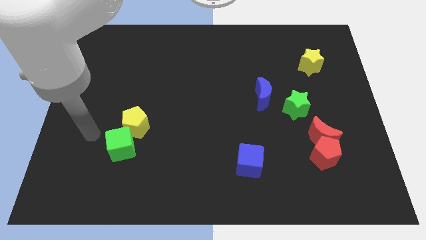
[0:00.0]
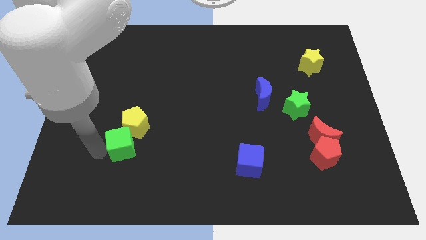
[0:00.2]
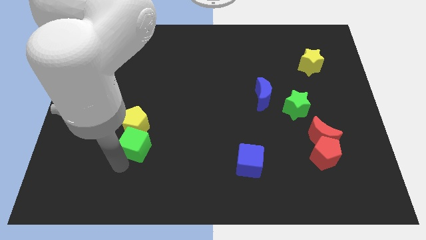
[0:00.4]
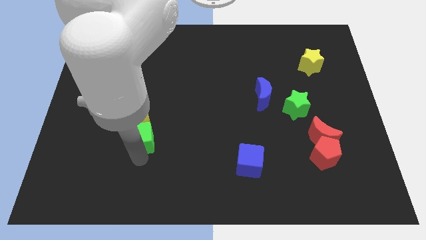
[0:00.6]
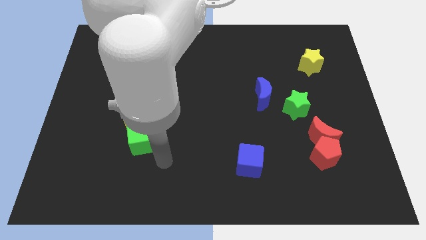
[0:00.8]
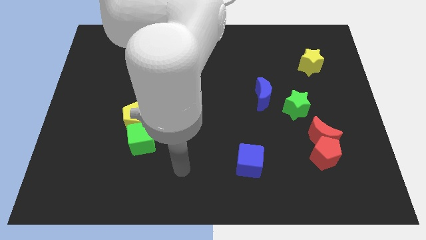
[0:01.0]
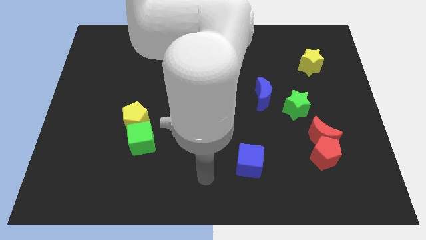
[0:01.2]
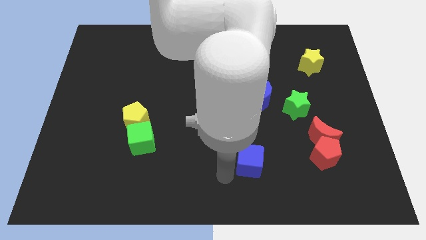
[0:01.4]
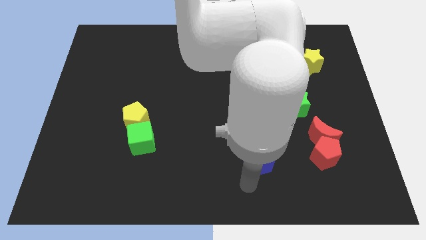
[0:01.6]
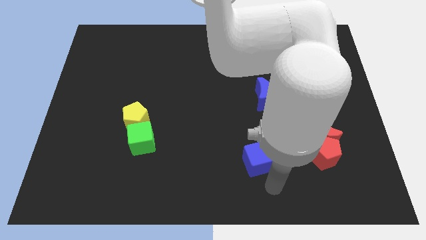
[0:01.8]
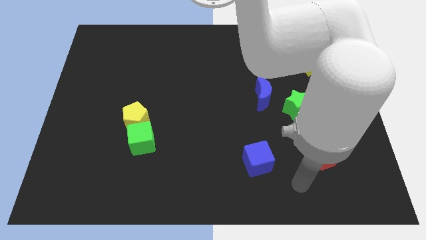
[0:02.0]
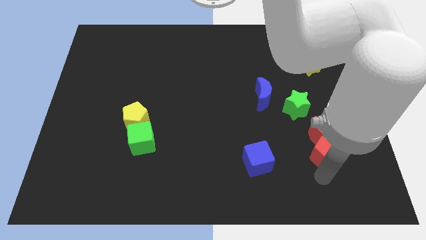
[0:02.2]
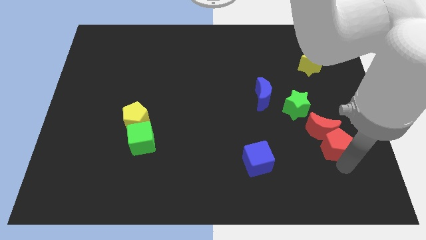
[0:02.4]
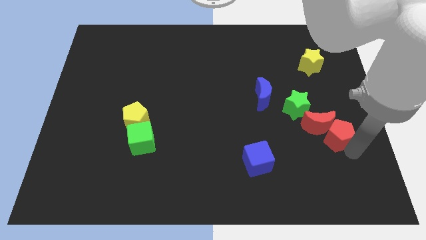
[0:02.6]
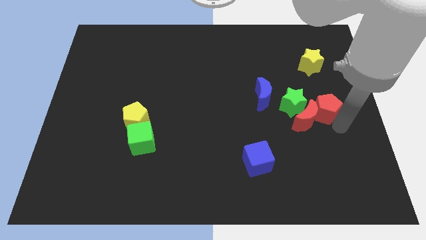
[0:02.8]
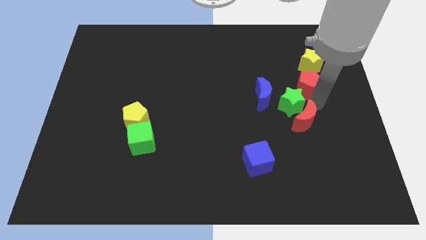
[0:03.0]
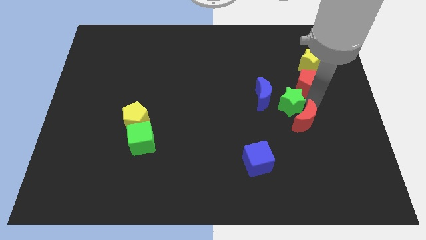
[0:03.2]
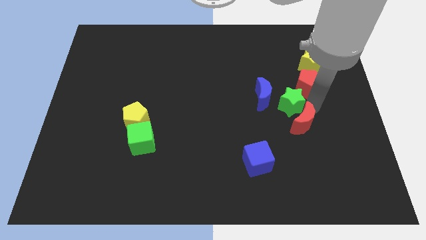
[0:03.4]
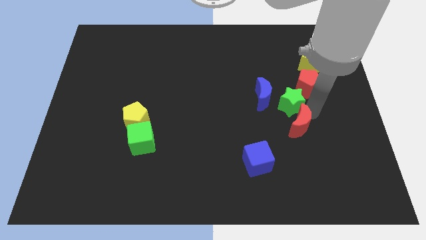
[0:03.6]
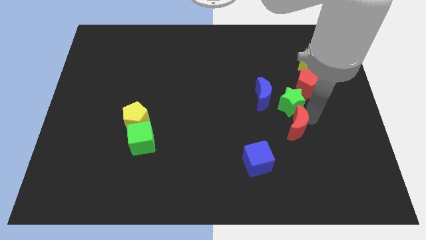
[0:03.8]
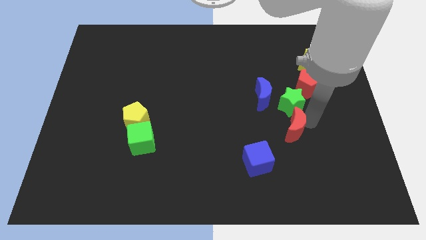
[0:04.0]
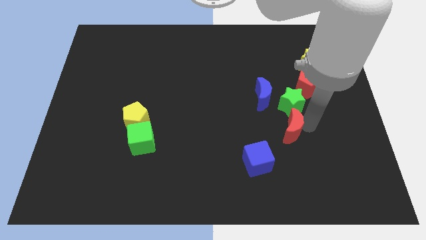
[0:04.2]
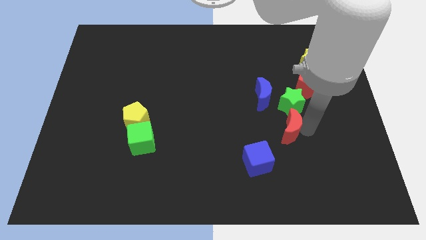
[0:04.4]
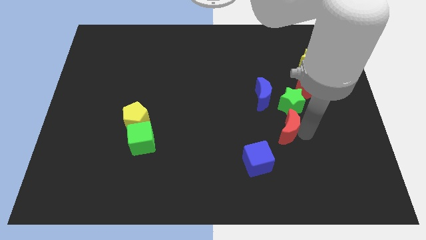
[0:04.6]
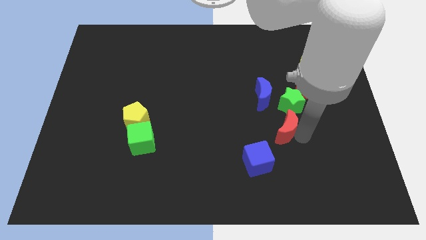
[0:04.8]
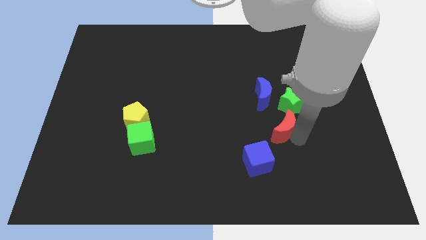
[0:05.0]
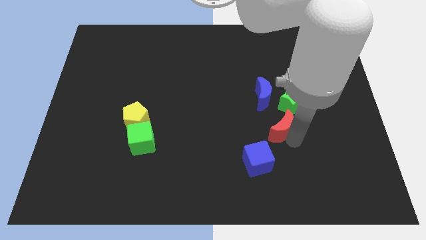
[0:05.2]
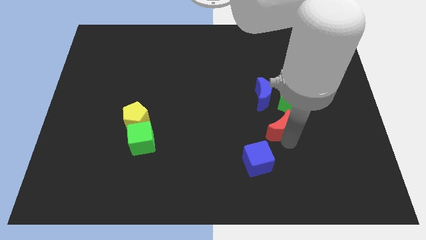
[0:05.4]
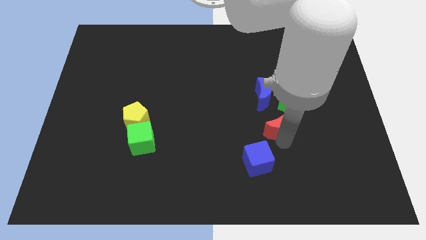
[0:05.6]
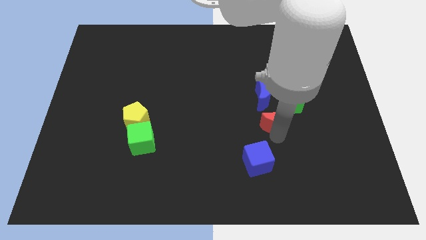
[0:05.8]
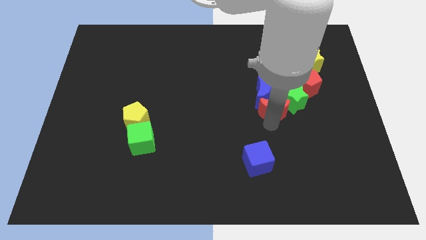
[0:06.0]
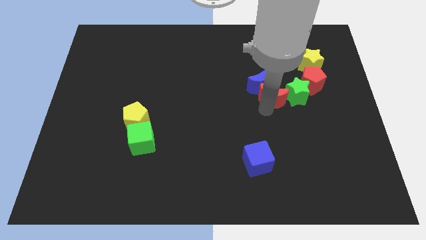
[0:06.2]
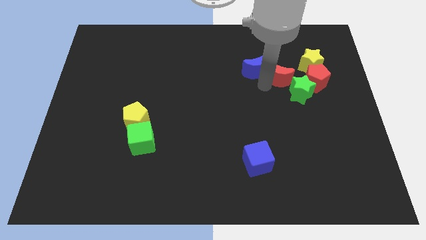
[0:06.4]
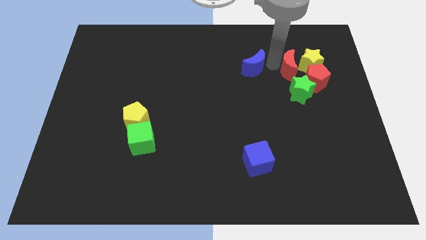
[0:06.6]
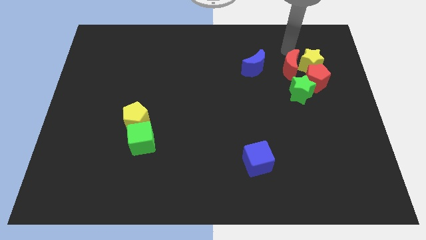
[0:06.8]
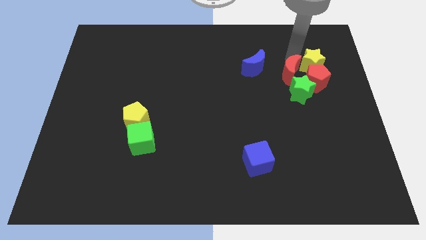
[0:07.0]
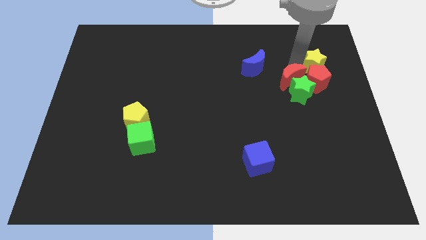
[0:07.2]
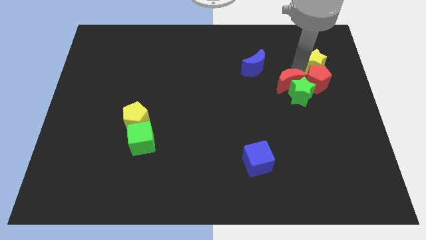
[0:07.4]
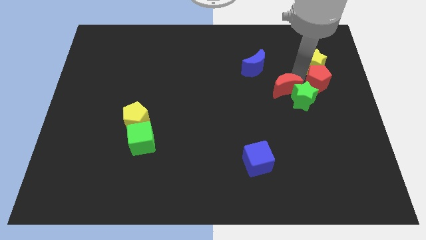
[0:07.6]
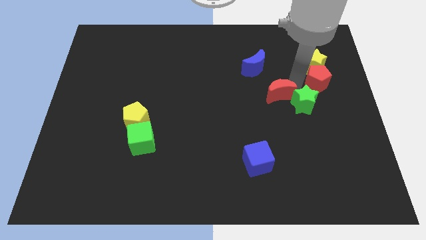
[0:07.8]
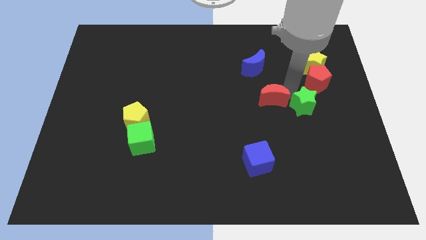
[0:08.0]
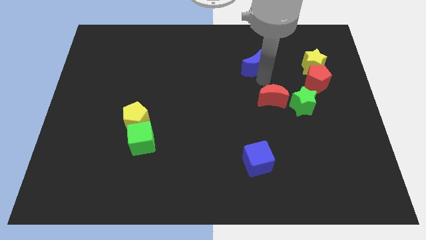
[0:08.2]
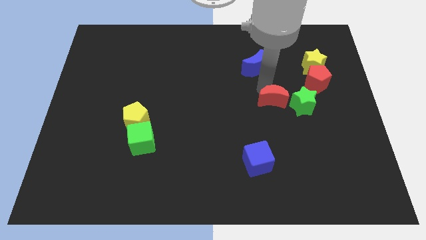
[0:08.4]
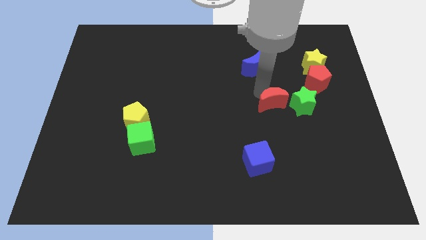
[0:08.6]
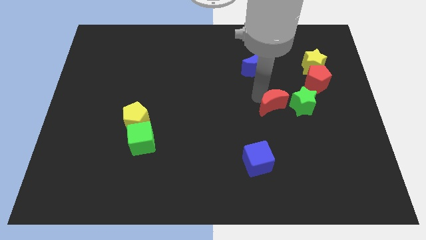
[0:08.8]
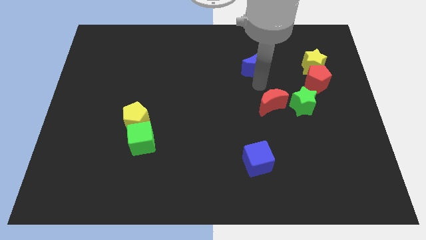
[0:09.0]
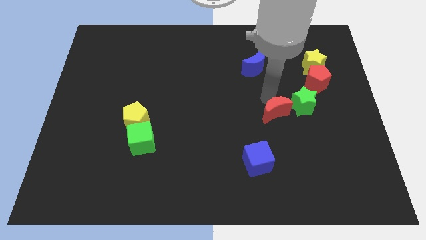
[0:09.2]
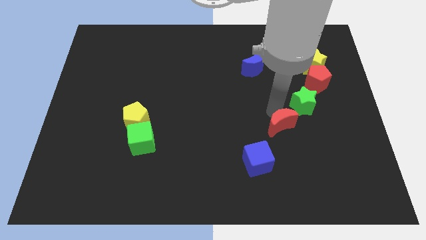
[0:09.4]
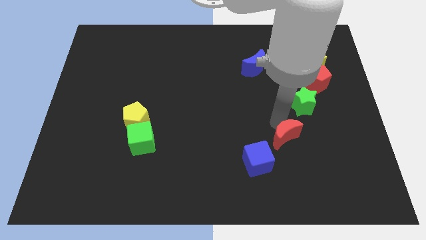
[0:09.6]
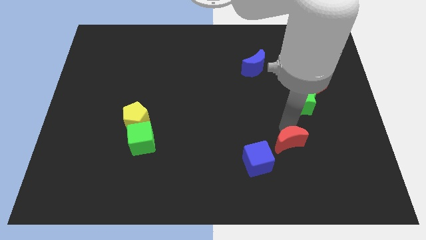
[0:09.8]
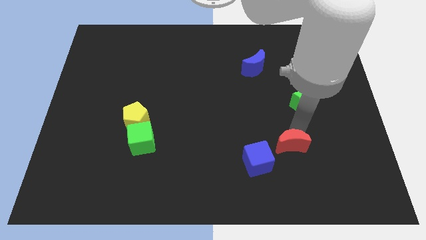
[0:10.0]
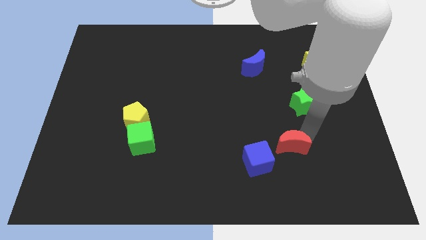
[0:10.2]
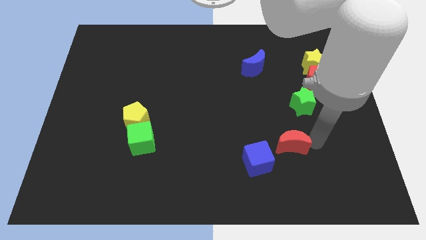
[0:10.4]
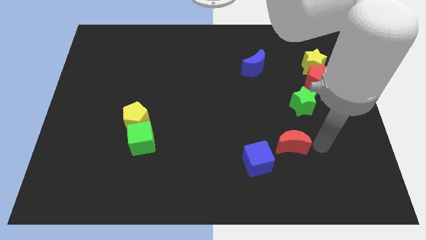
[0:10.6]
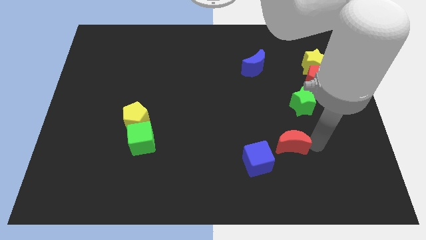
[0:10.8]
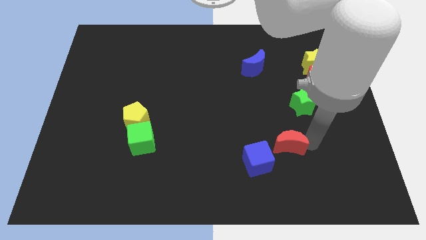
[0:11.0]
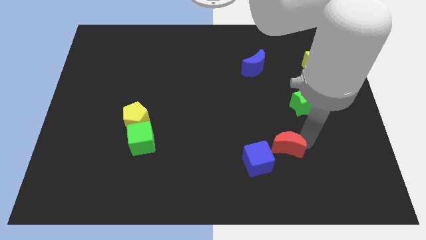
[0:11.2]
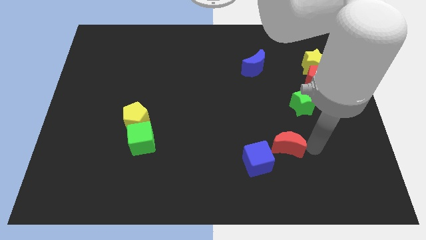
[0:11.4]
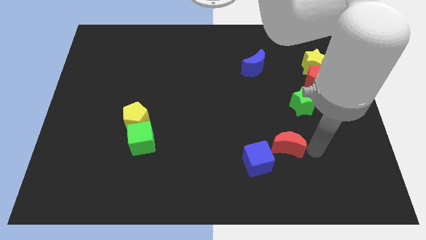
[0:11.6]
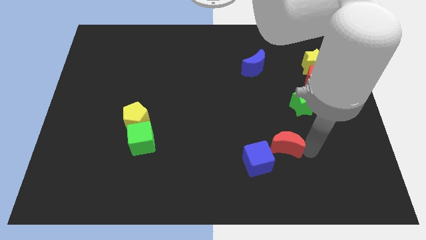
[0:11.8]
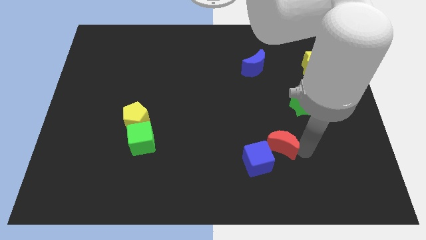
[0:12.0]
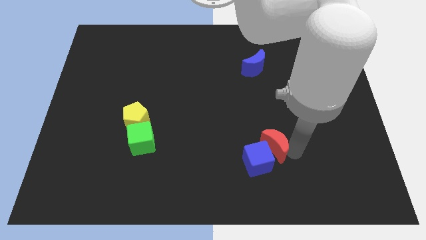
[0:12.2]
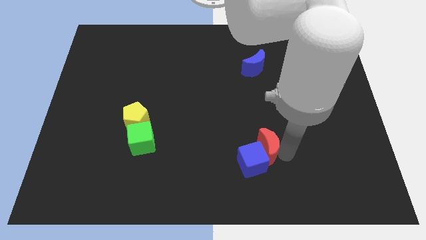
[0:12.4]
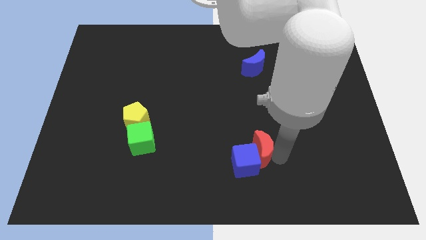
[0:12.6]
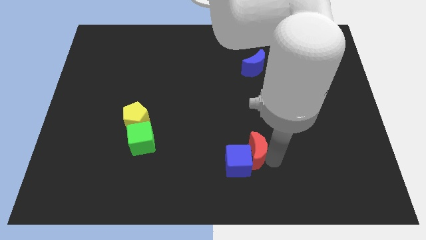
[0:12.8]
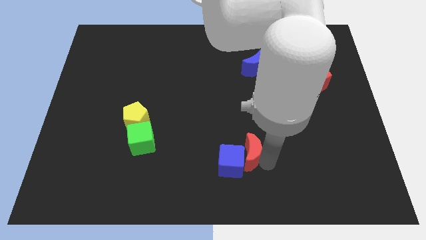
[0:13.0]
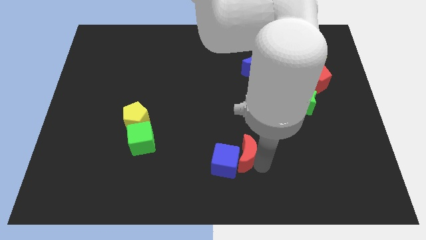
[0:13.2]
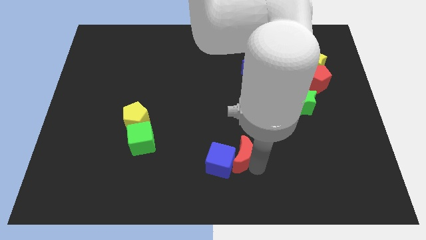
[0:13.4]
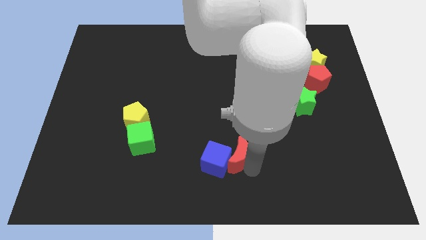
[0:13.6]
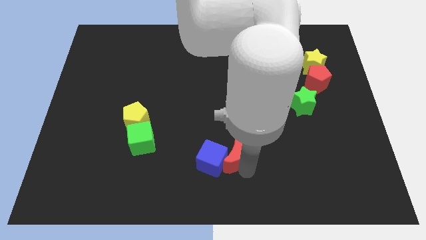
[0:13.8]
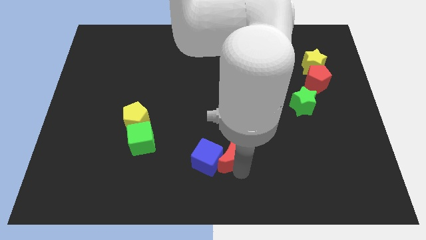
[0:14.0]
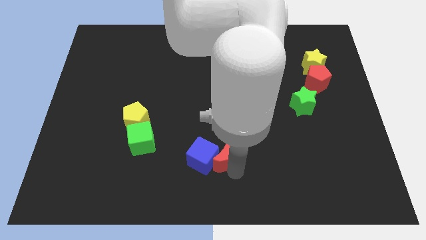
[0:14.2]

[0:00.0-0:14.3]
move the red moon to the left

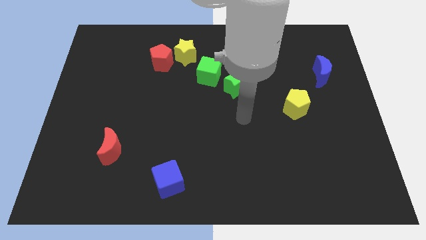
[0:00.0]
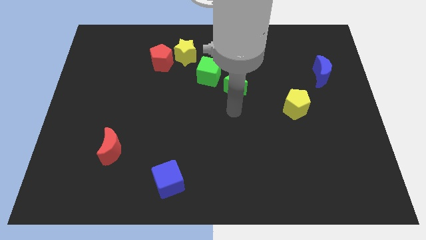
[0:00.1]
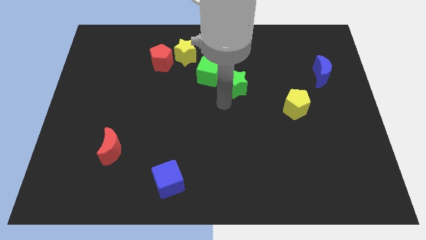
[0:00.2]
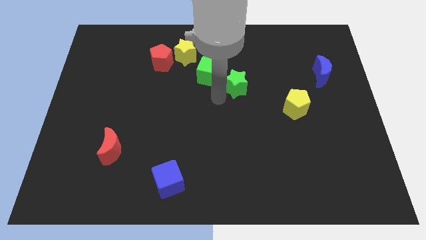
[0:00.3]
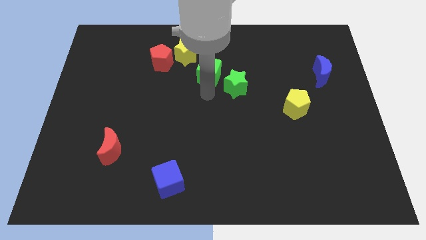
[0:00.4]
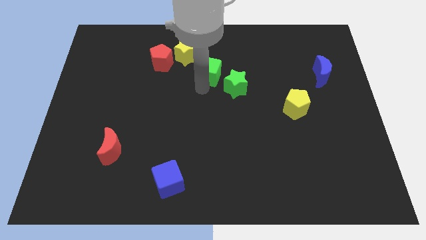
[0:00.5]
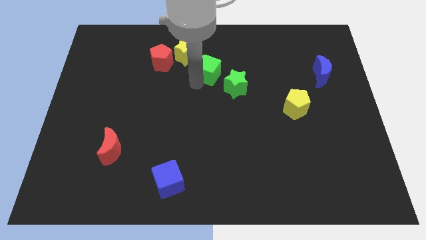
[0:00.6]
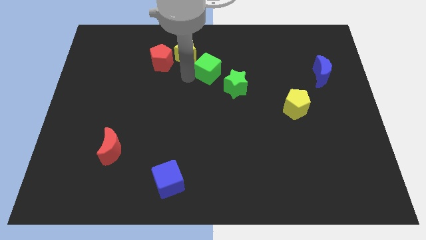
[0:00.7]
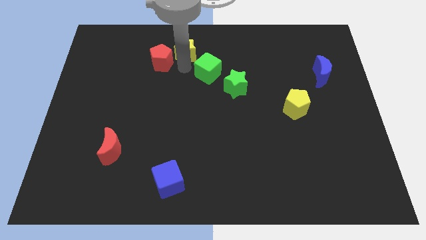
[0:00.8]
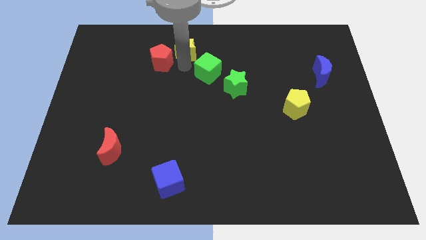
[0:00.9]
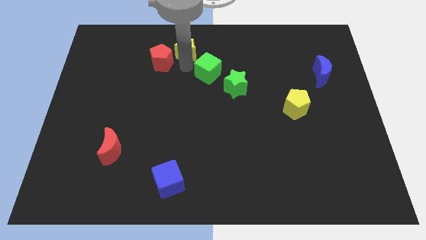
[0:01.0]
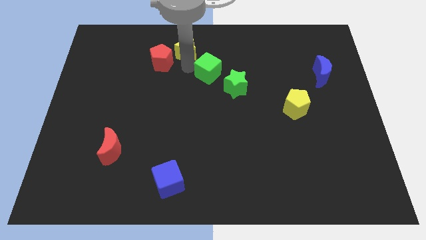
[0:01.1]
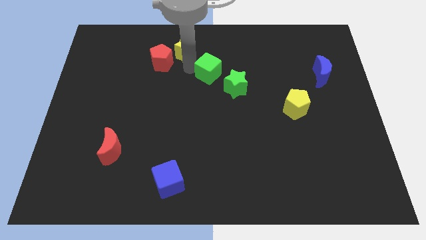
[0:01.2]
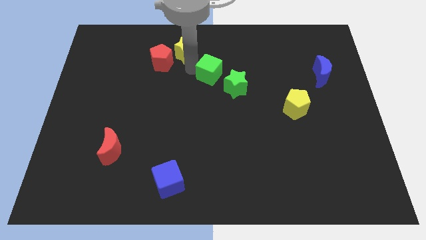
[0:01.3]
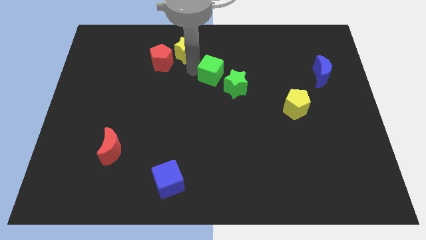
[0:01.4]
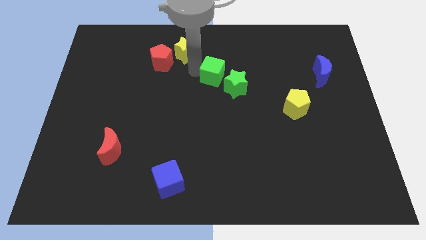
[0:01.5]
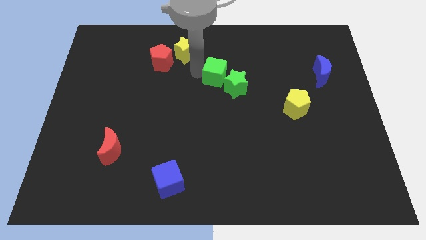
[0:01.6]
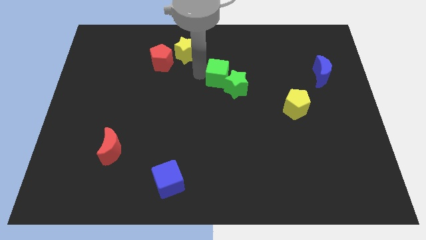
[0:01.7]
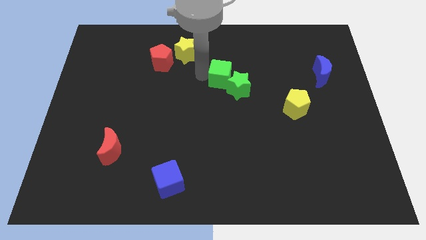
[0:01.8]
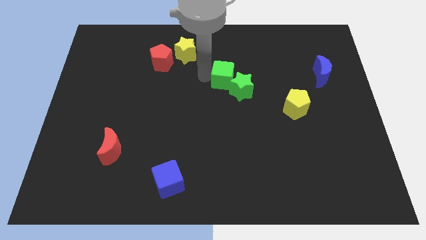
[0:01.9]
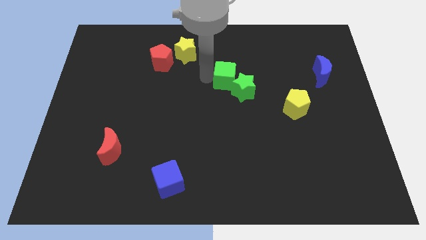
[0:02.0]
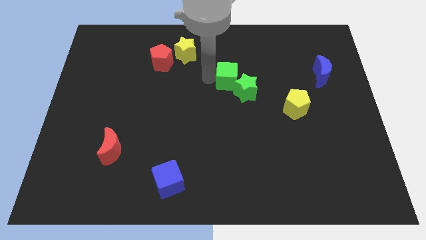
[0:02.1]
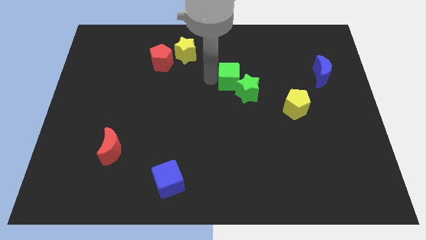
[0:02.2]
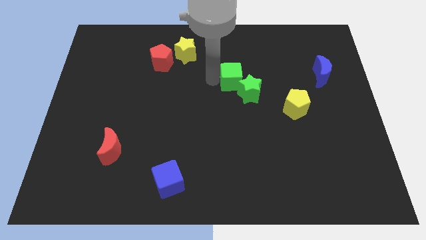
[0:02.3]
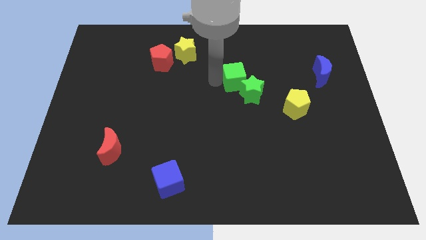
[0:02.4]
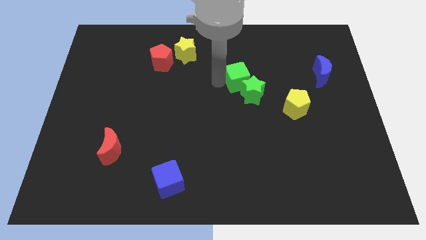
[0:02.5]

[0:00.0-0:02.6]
slightly move the green cube to the right
